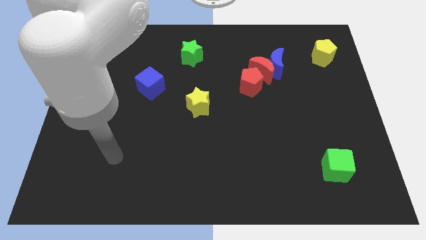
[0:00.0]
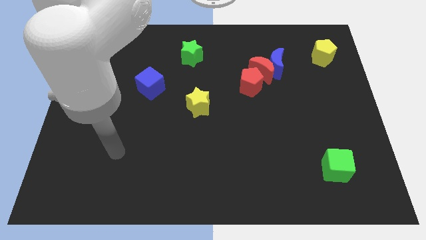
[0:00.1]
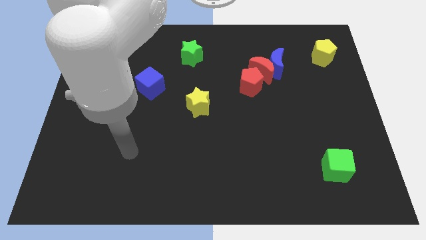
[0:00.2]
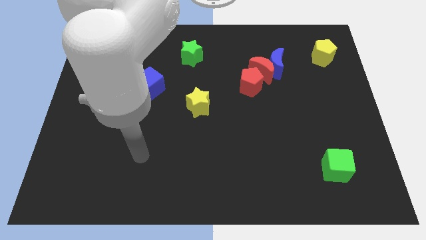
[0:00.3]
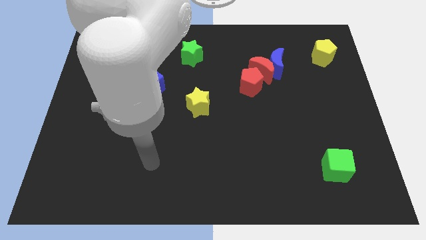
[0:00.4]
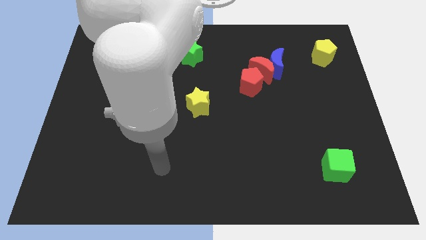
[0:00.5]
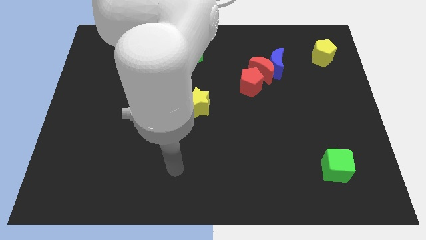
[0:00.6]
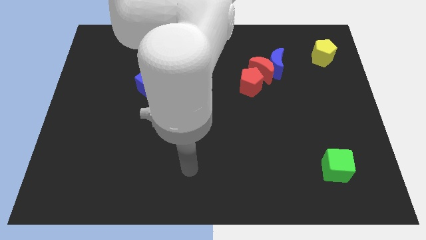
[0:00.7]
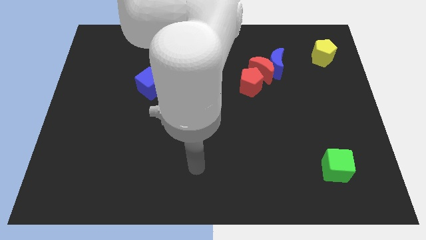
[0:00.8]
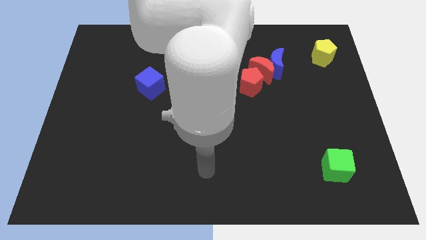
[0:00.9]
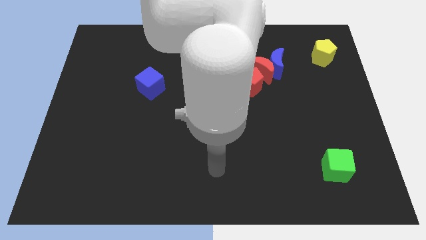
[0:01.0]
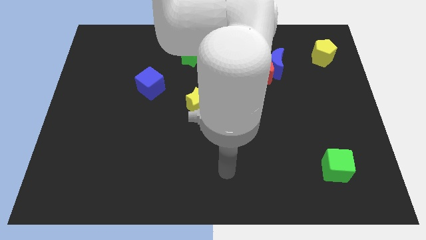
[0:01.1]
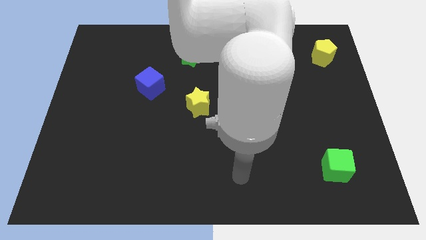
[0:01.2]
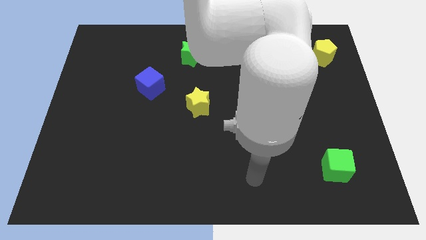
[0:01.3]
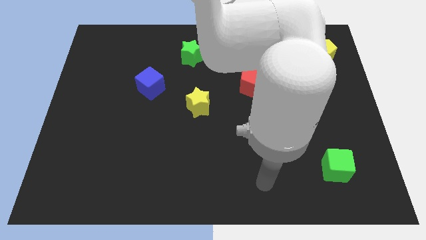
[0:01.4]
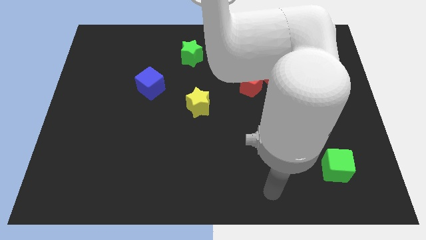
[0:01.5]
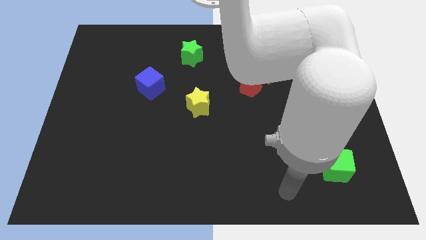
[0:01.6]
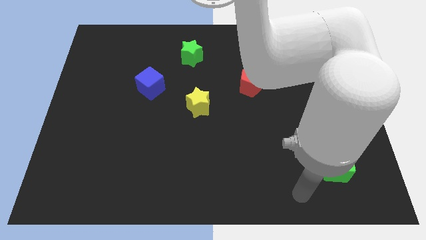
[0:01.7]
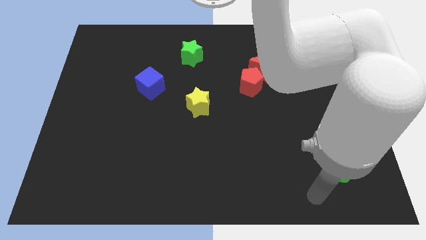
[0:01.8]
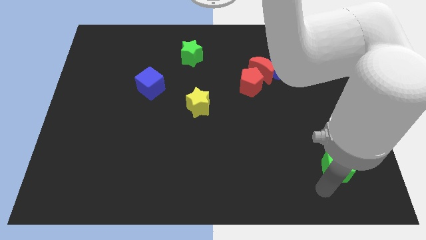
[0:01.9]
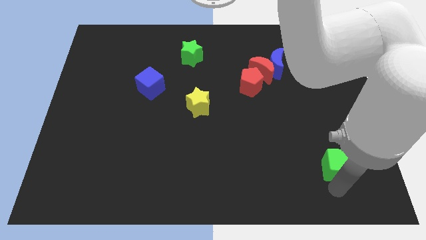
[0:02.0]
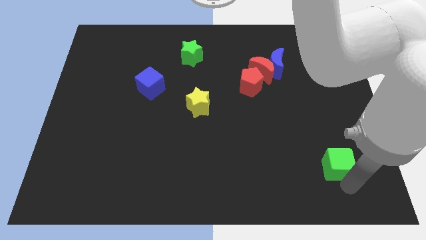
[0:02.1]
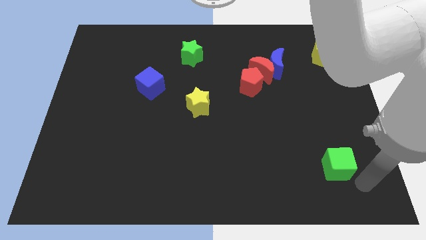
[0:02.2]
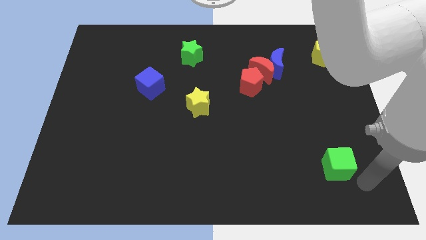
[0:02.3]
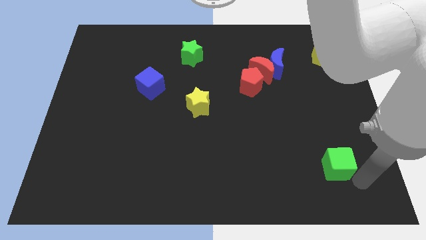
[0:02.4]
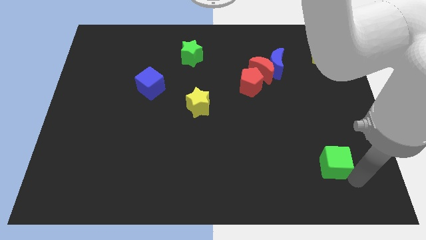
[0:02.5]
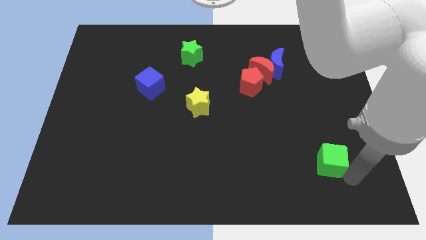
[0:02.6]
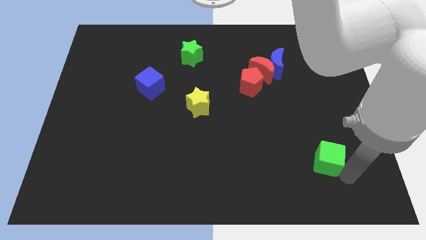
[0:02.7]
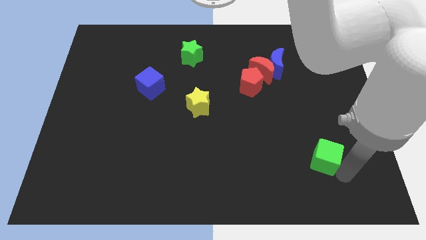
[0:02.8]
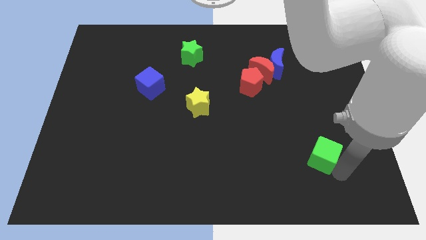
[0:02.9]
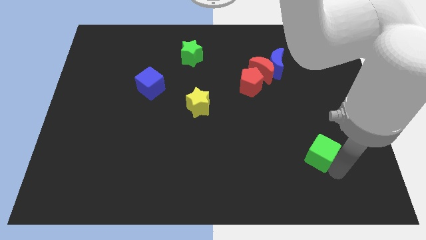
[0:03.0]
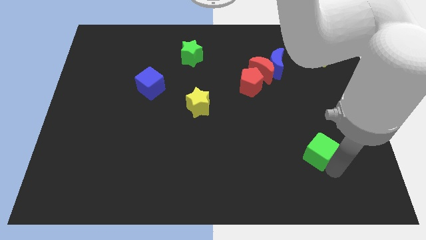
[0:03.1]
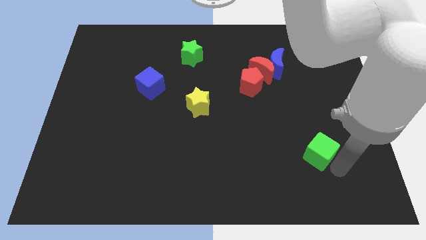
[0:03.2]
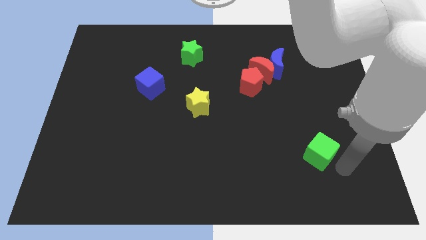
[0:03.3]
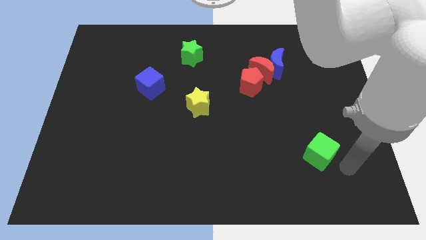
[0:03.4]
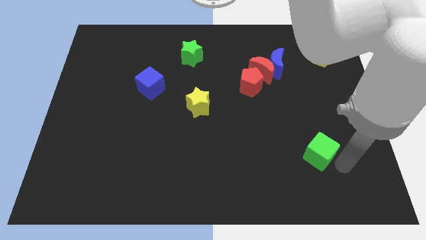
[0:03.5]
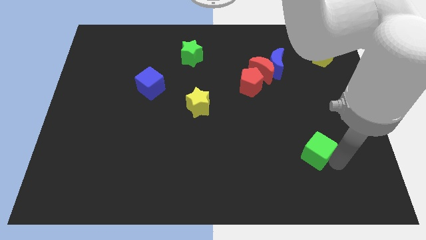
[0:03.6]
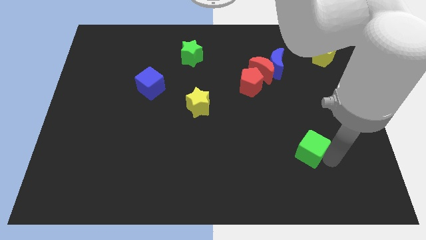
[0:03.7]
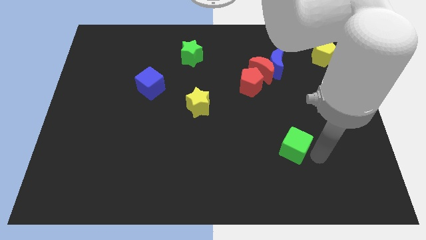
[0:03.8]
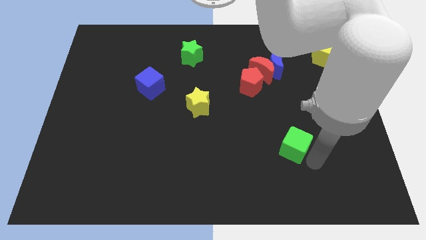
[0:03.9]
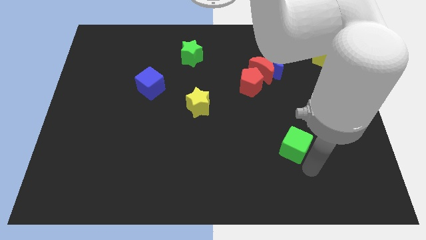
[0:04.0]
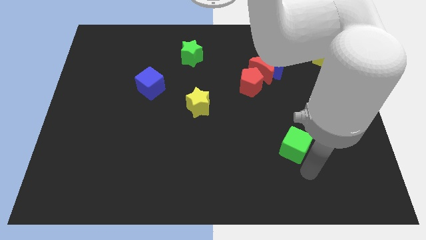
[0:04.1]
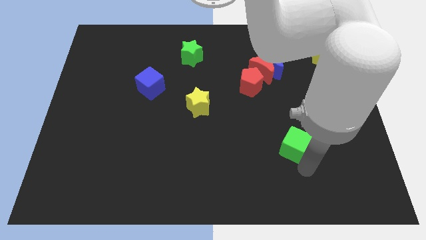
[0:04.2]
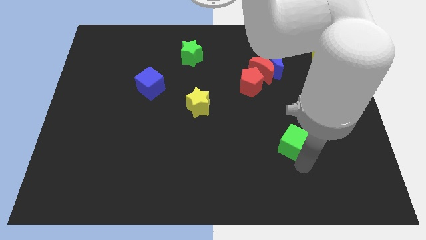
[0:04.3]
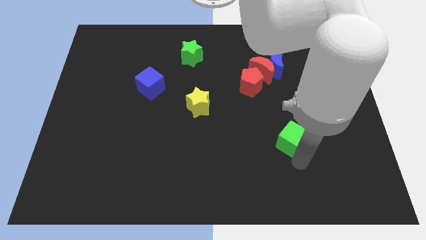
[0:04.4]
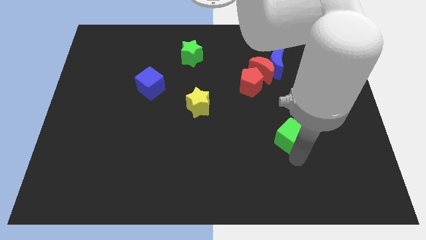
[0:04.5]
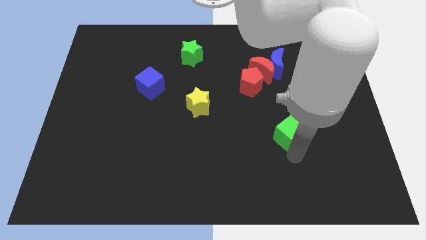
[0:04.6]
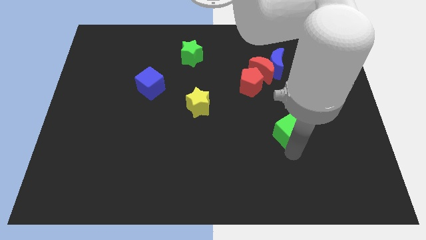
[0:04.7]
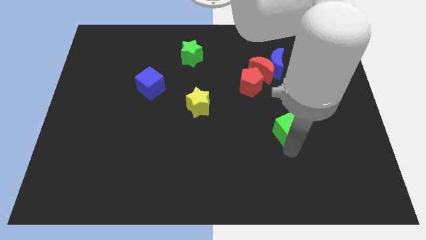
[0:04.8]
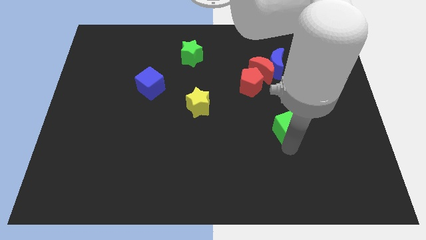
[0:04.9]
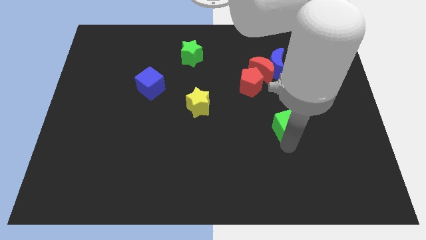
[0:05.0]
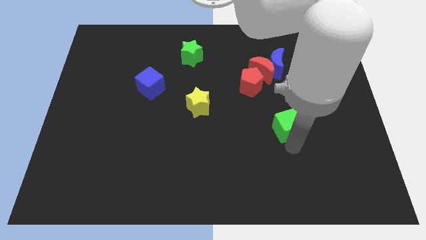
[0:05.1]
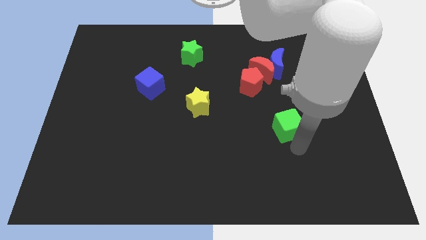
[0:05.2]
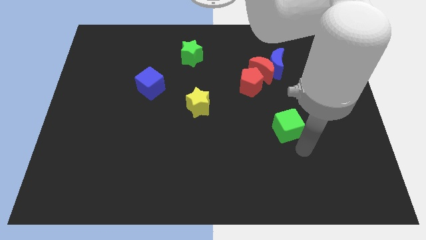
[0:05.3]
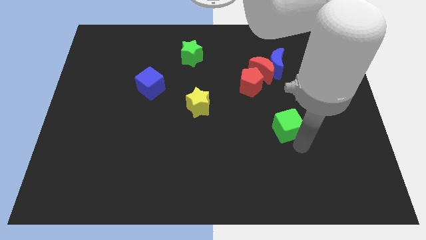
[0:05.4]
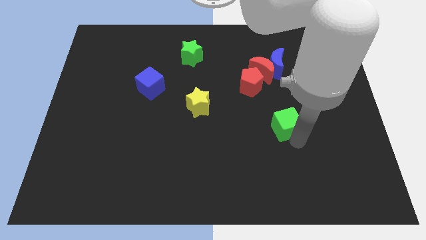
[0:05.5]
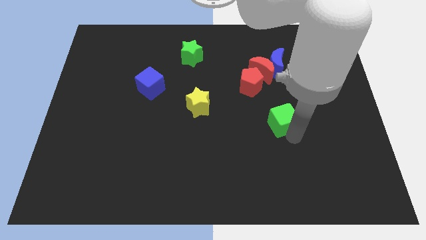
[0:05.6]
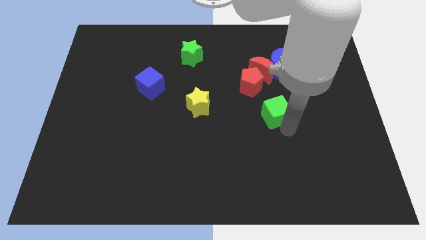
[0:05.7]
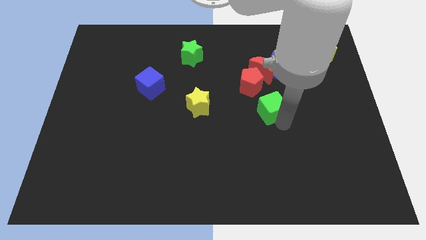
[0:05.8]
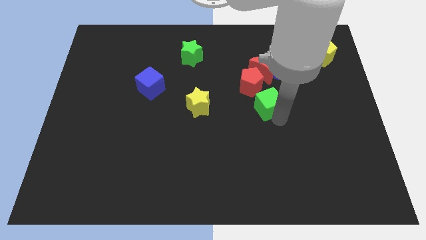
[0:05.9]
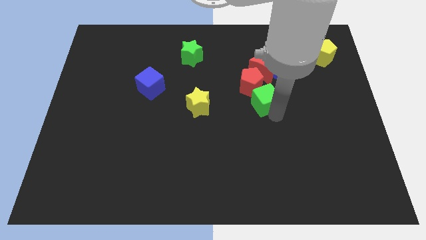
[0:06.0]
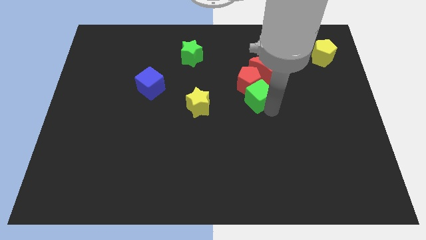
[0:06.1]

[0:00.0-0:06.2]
move the green cube to the red pentagon

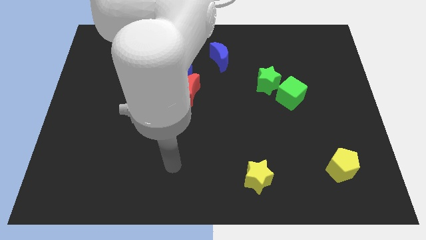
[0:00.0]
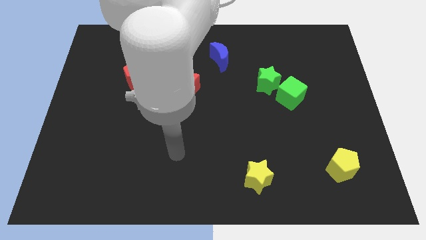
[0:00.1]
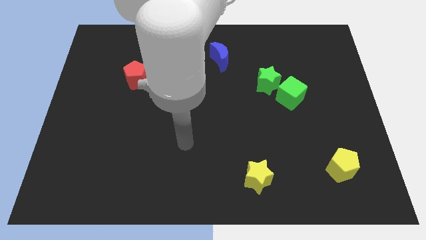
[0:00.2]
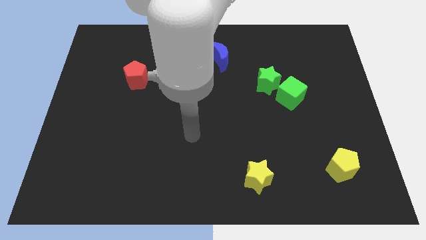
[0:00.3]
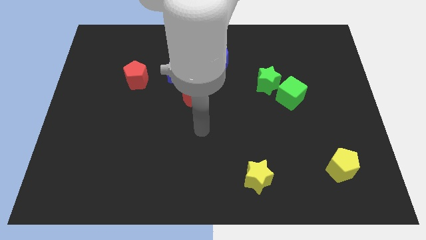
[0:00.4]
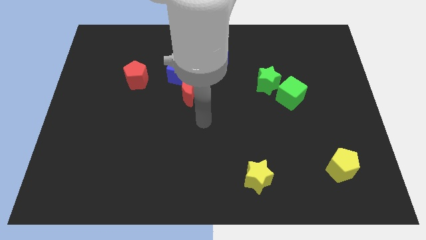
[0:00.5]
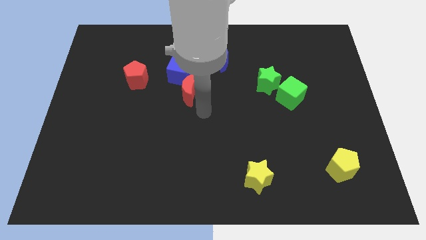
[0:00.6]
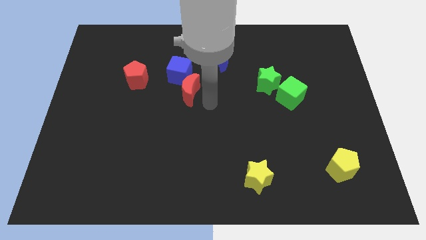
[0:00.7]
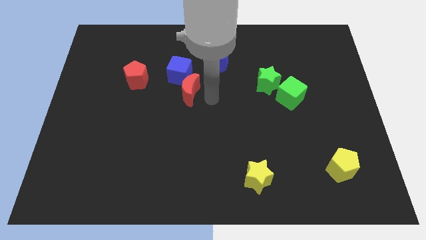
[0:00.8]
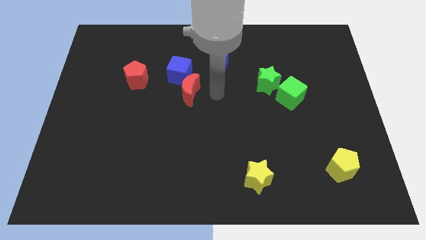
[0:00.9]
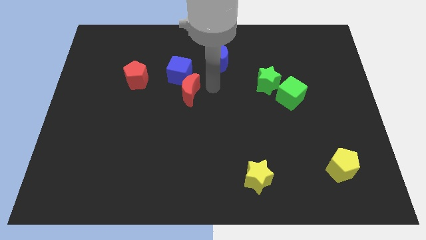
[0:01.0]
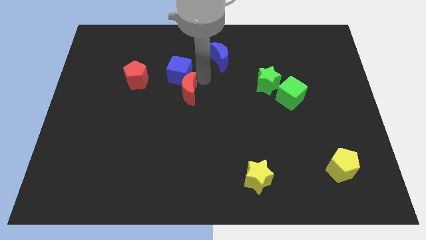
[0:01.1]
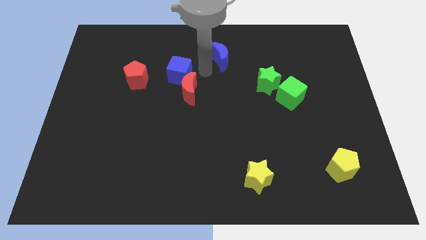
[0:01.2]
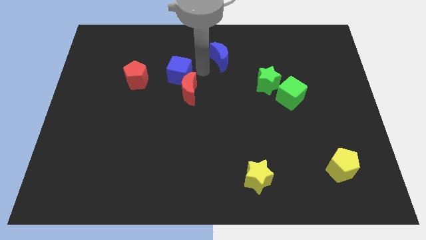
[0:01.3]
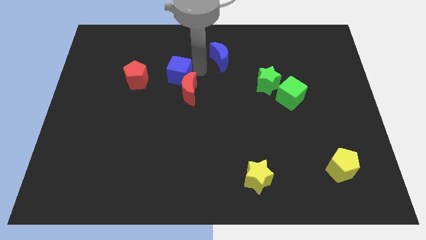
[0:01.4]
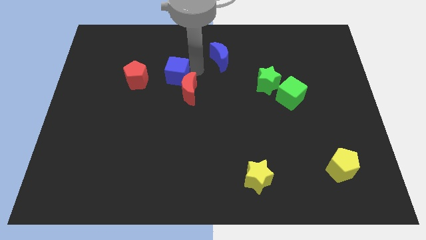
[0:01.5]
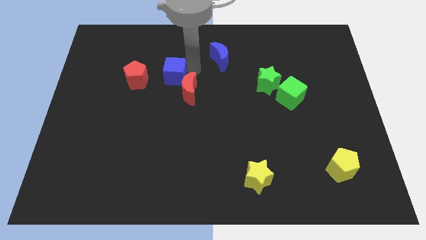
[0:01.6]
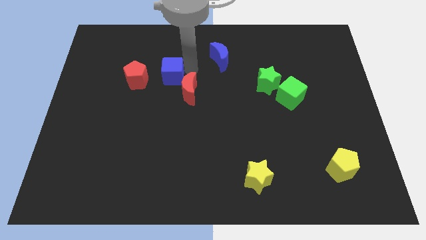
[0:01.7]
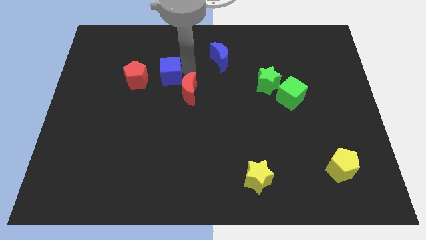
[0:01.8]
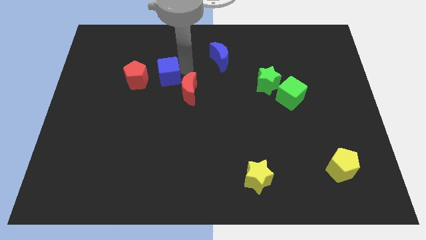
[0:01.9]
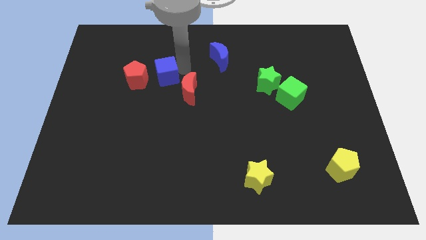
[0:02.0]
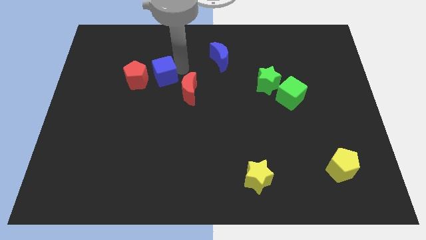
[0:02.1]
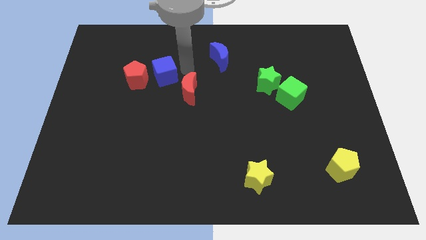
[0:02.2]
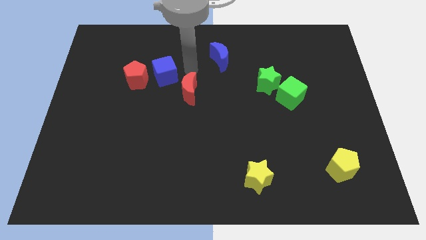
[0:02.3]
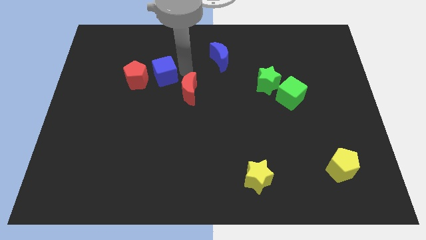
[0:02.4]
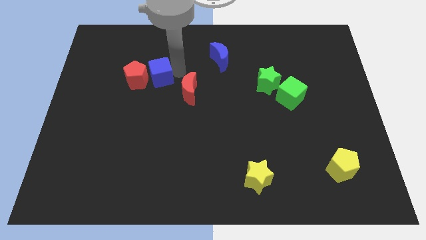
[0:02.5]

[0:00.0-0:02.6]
move the blue cube towards the red pentagon
